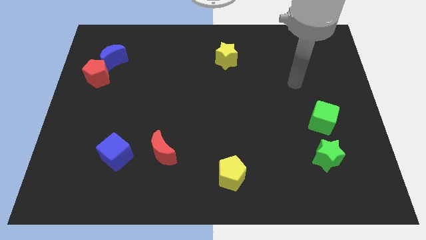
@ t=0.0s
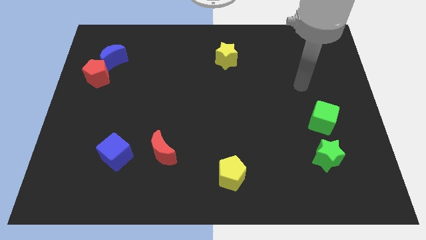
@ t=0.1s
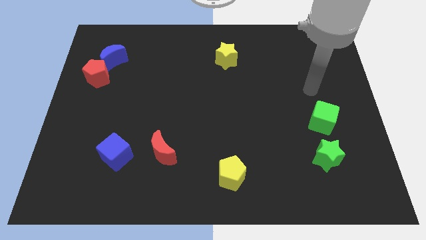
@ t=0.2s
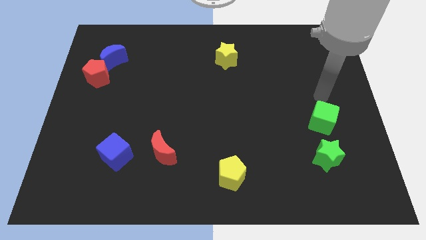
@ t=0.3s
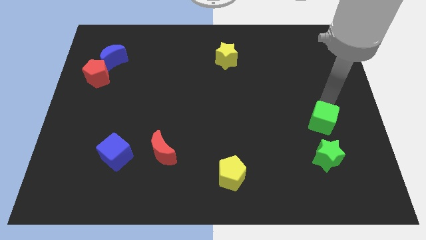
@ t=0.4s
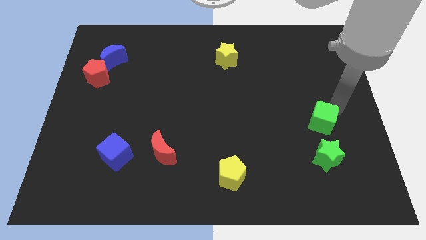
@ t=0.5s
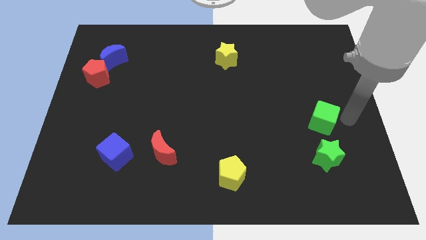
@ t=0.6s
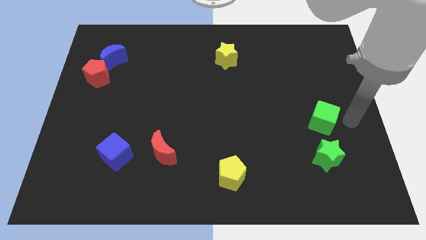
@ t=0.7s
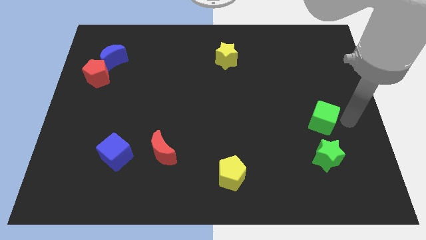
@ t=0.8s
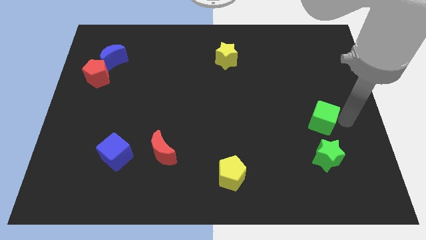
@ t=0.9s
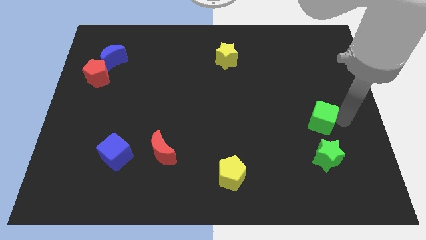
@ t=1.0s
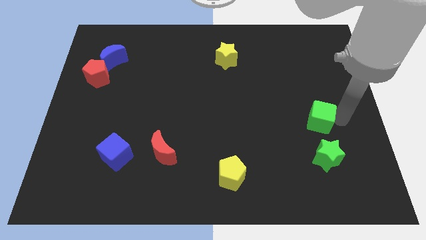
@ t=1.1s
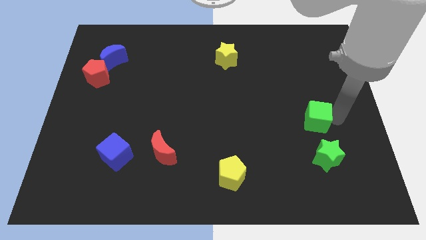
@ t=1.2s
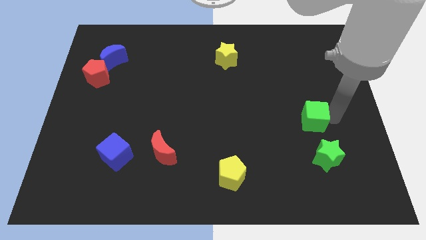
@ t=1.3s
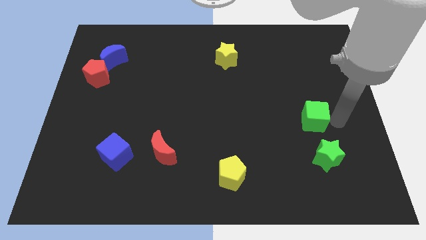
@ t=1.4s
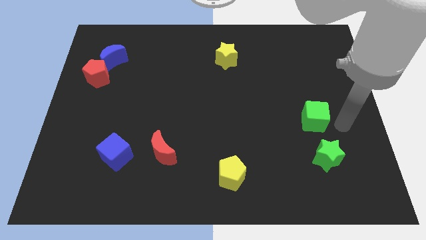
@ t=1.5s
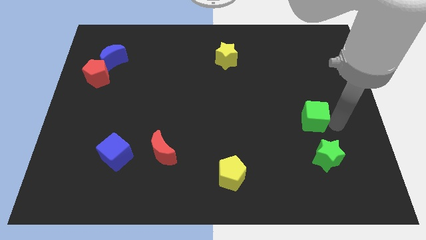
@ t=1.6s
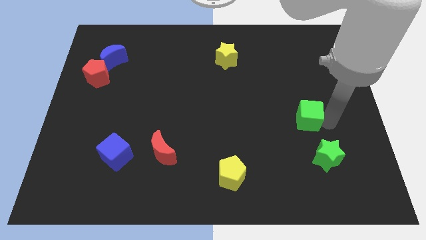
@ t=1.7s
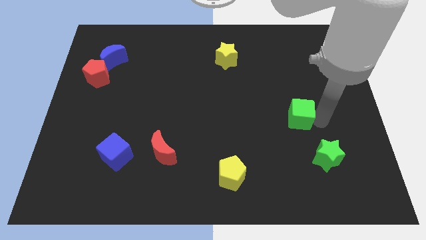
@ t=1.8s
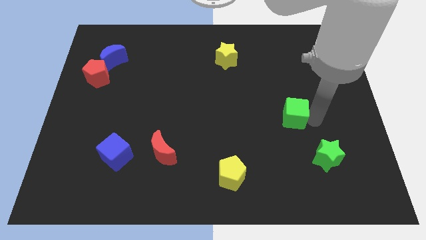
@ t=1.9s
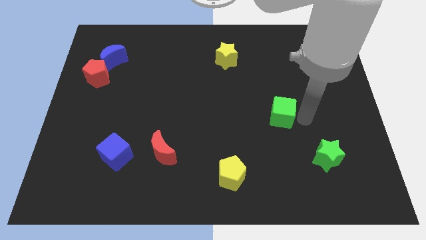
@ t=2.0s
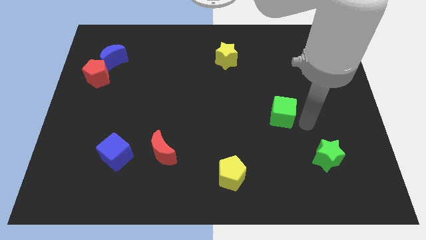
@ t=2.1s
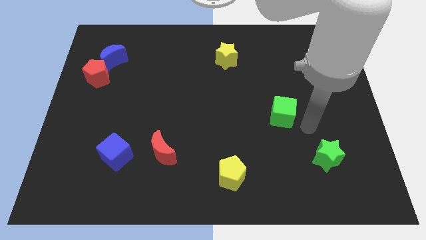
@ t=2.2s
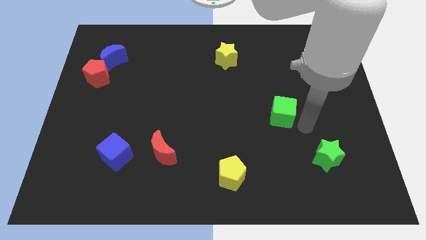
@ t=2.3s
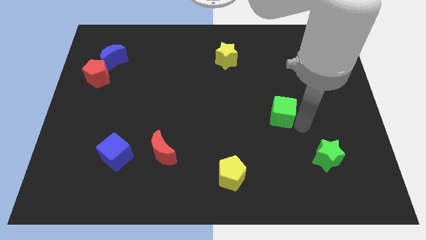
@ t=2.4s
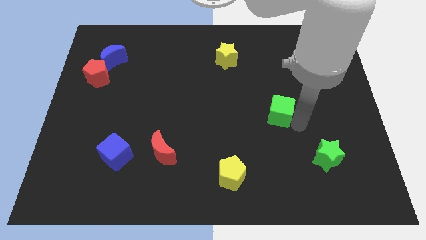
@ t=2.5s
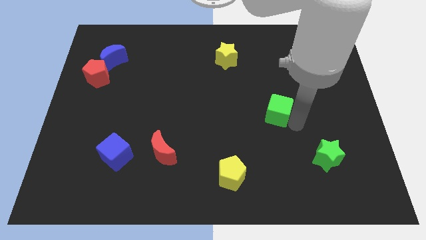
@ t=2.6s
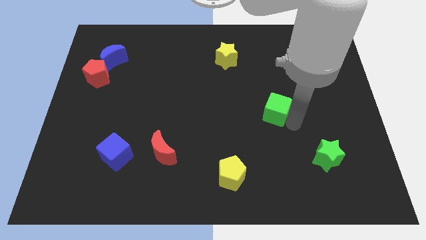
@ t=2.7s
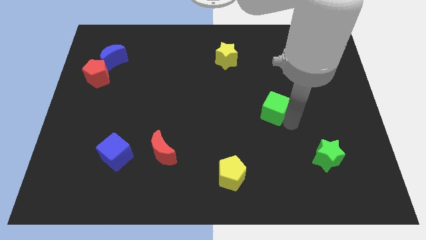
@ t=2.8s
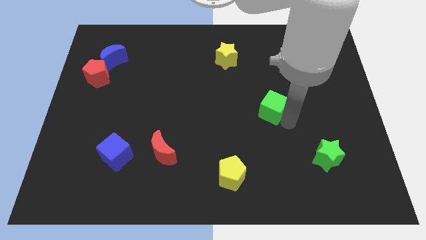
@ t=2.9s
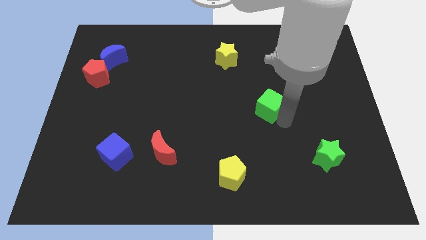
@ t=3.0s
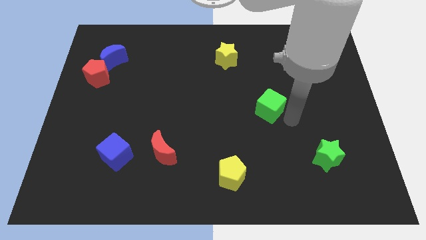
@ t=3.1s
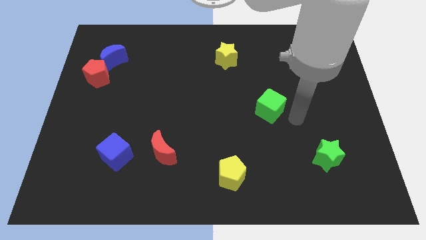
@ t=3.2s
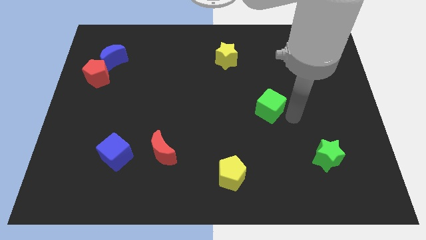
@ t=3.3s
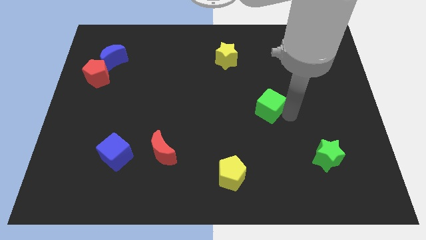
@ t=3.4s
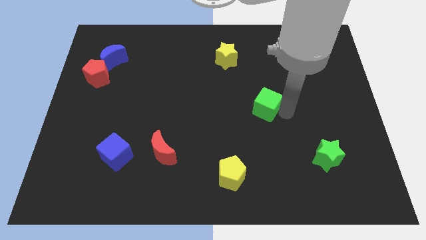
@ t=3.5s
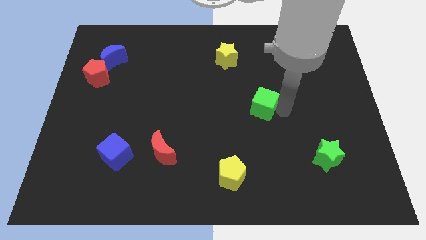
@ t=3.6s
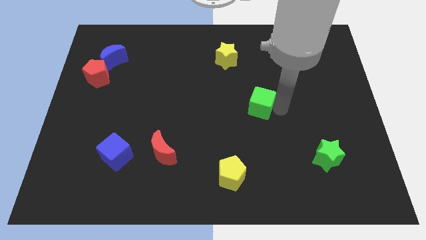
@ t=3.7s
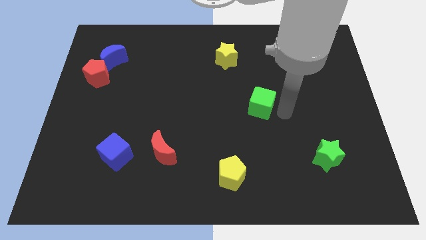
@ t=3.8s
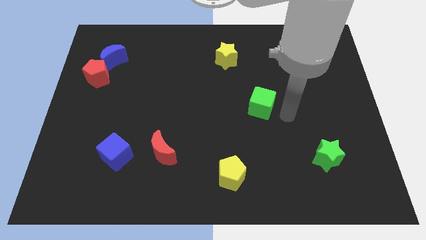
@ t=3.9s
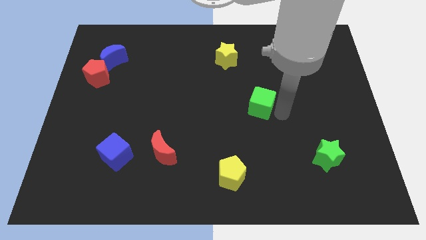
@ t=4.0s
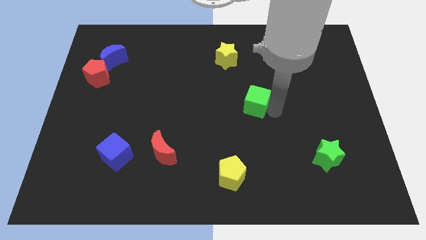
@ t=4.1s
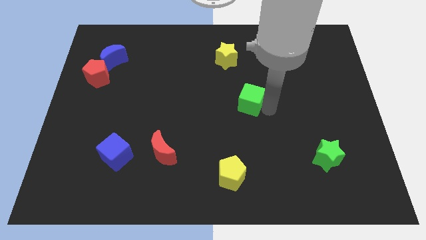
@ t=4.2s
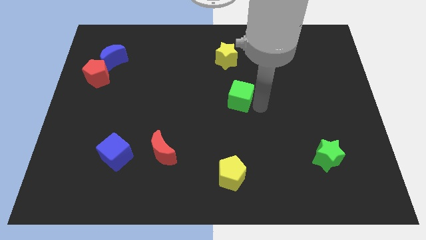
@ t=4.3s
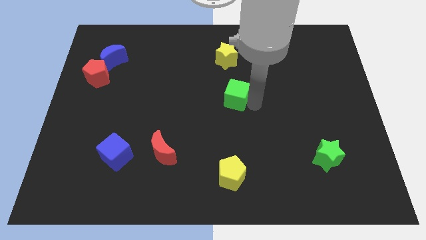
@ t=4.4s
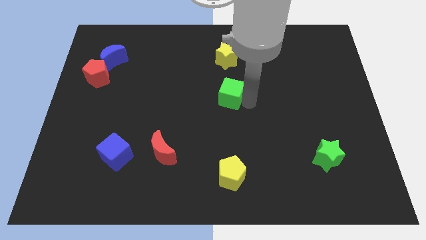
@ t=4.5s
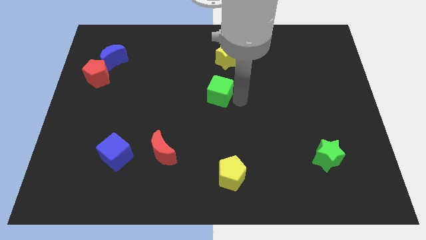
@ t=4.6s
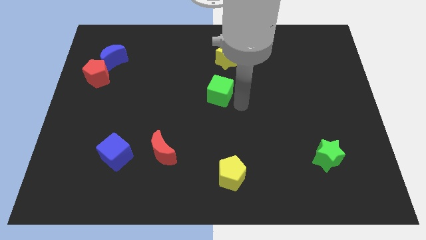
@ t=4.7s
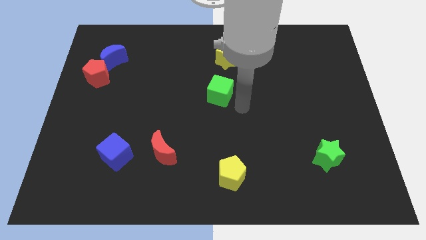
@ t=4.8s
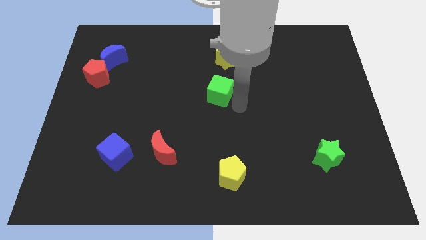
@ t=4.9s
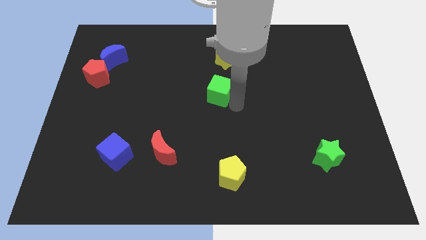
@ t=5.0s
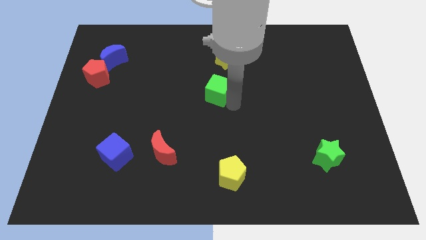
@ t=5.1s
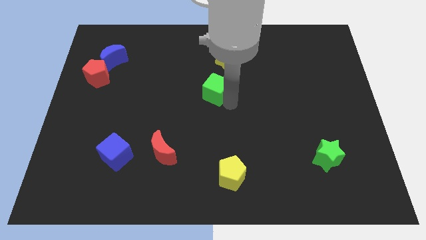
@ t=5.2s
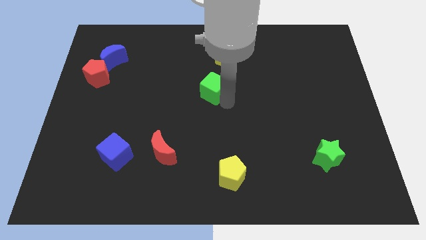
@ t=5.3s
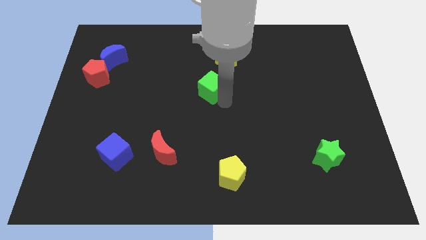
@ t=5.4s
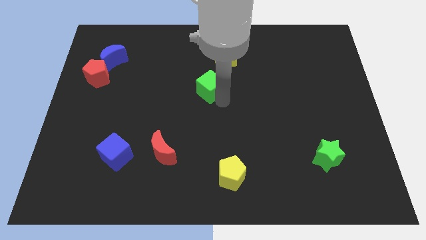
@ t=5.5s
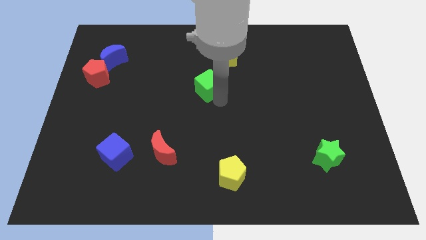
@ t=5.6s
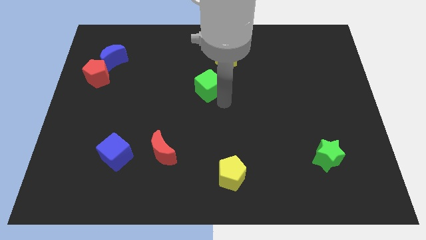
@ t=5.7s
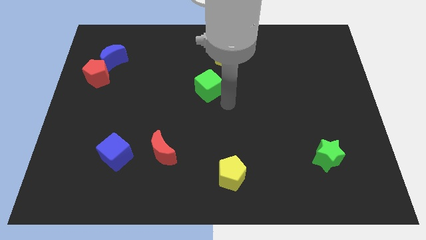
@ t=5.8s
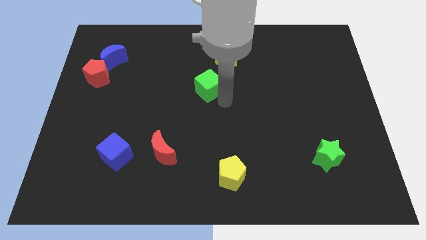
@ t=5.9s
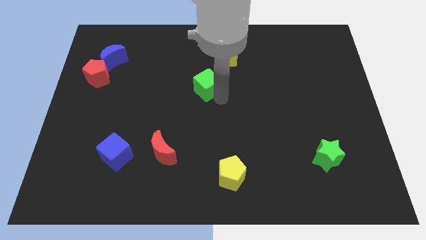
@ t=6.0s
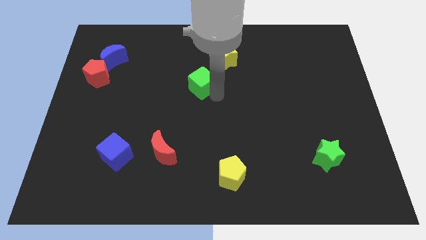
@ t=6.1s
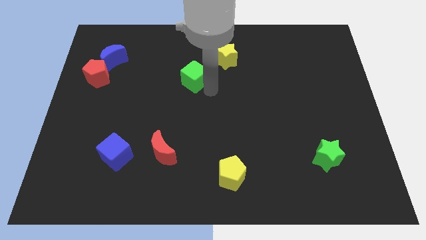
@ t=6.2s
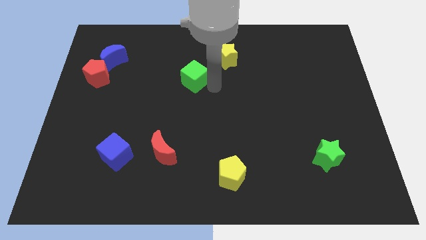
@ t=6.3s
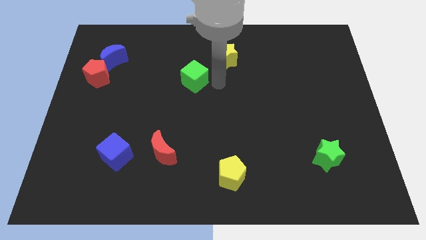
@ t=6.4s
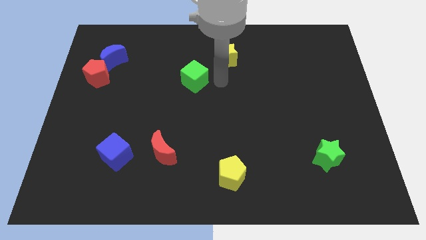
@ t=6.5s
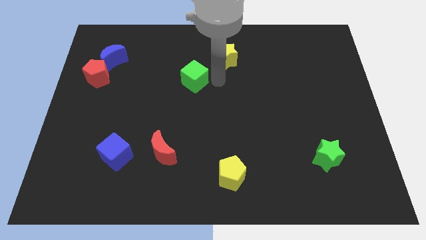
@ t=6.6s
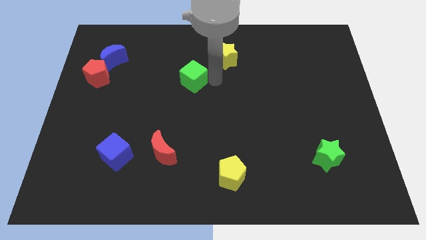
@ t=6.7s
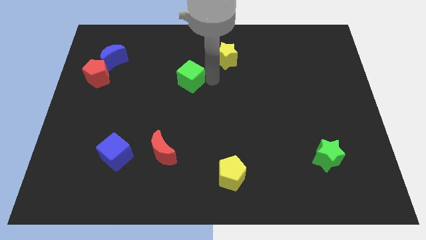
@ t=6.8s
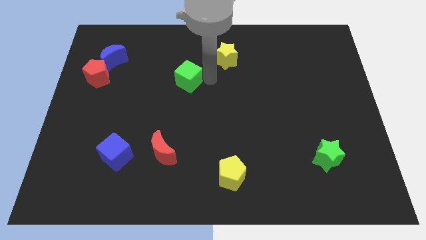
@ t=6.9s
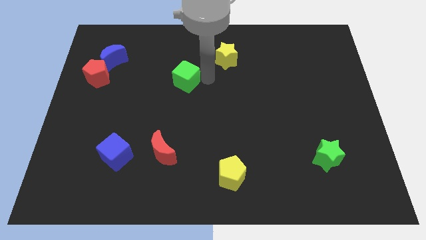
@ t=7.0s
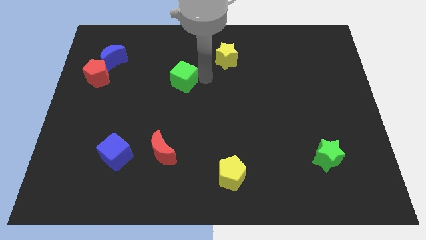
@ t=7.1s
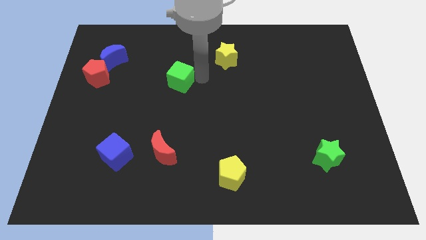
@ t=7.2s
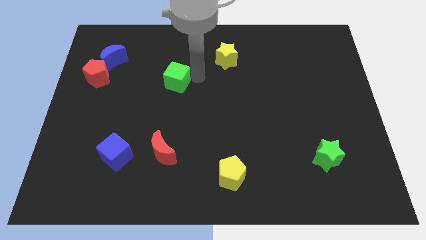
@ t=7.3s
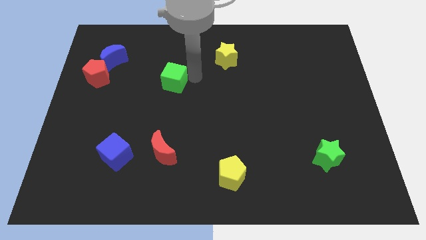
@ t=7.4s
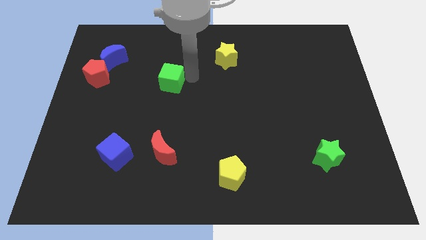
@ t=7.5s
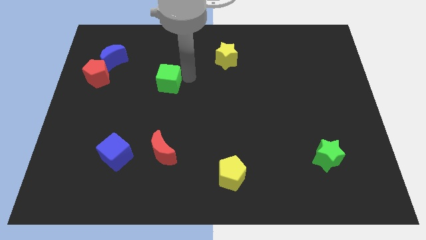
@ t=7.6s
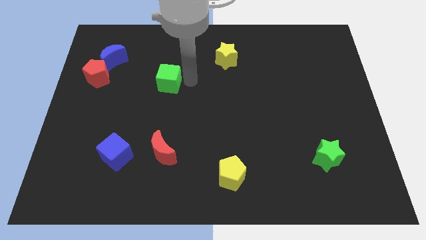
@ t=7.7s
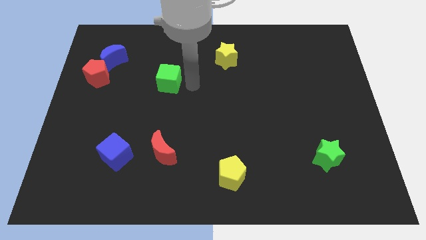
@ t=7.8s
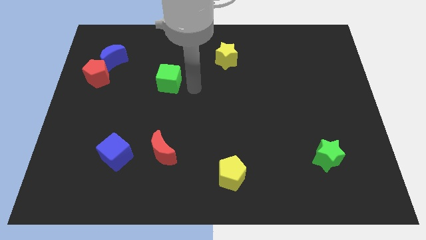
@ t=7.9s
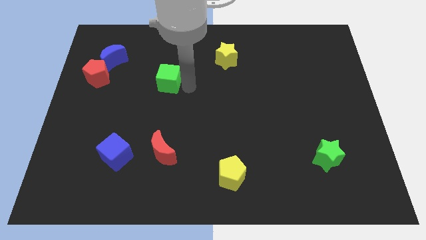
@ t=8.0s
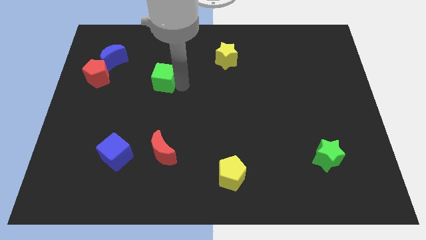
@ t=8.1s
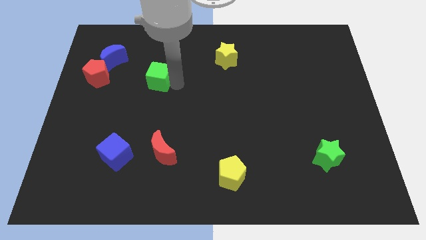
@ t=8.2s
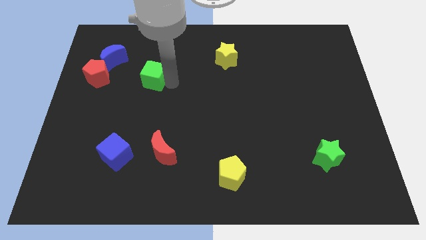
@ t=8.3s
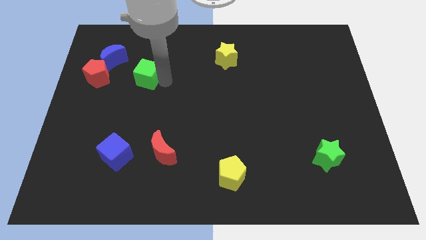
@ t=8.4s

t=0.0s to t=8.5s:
put the green cube to the bottom right of the blue moon
